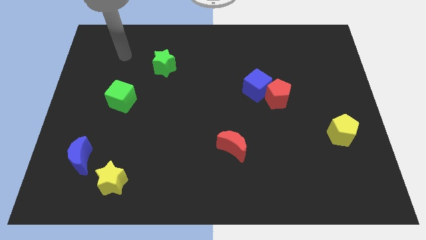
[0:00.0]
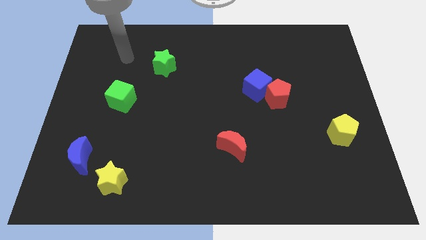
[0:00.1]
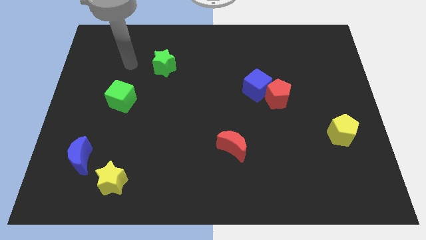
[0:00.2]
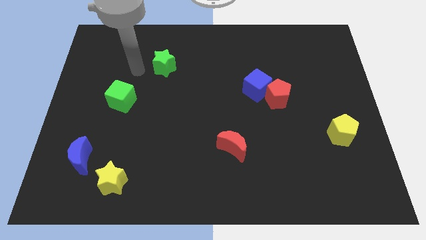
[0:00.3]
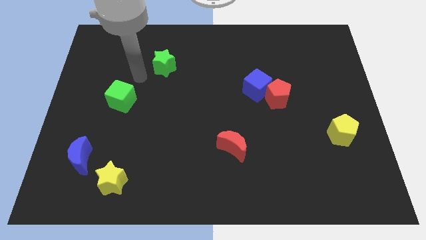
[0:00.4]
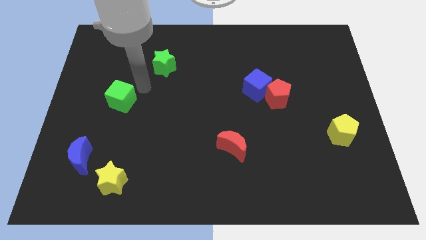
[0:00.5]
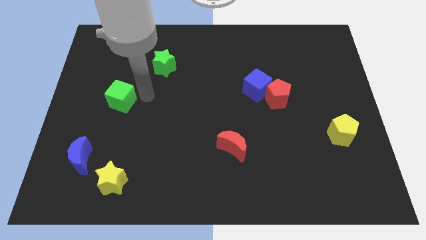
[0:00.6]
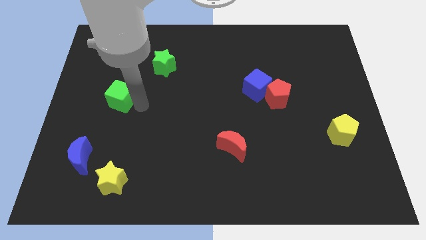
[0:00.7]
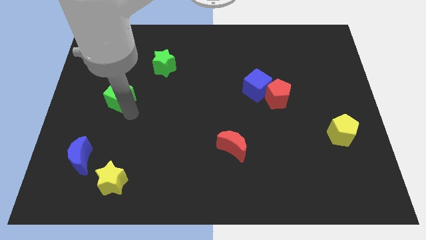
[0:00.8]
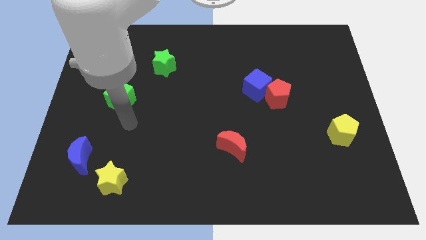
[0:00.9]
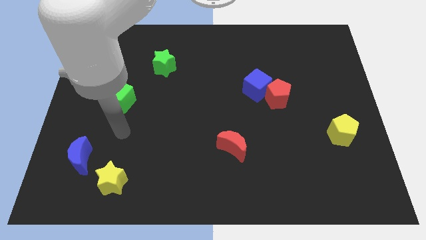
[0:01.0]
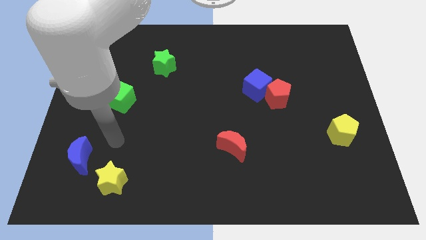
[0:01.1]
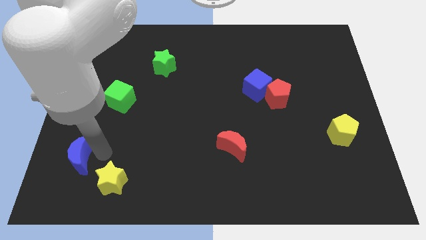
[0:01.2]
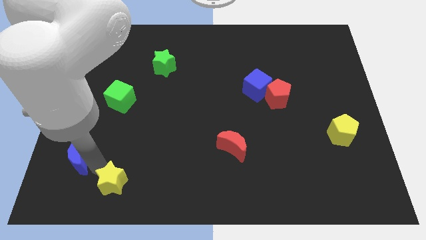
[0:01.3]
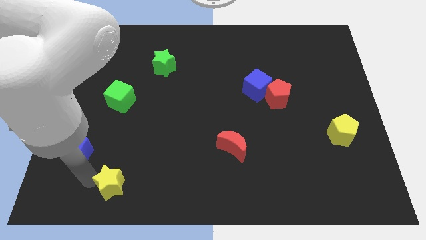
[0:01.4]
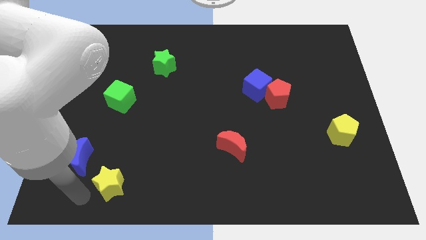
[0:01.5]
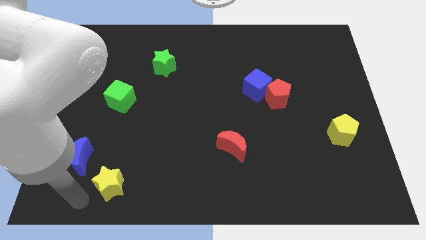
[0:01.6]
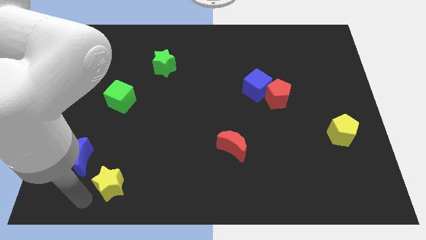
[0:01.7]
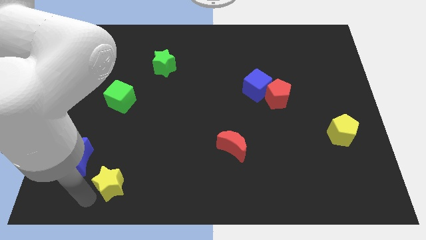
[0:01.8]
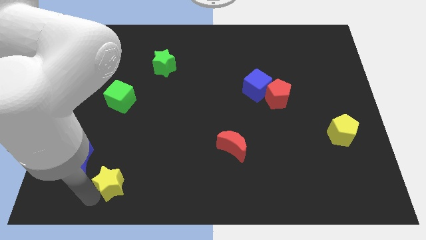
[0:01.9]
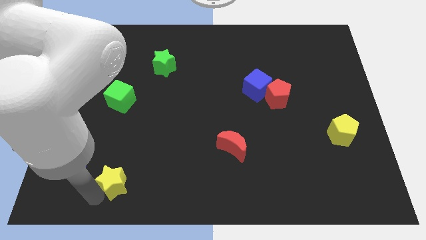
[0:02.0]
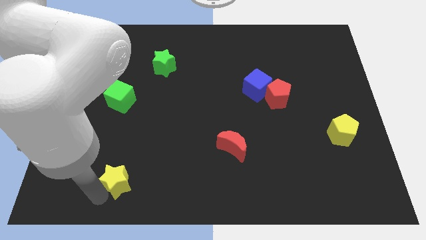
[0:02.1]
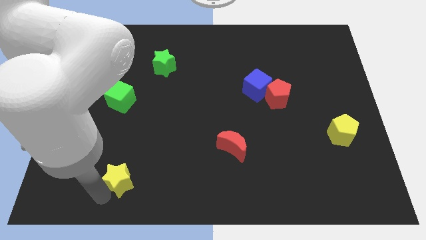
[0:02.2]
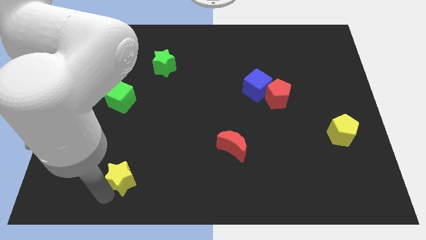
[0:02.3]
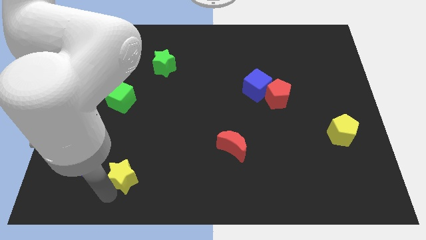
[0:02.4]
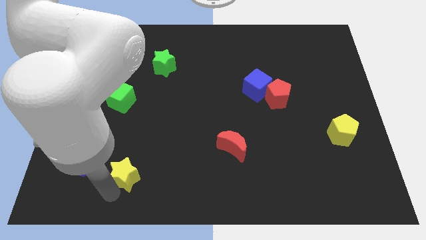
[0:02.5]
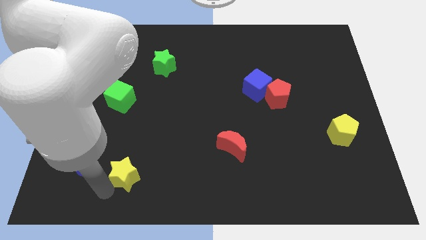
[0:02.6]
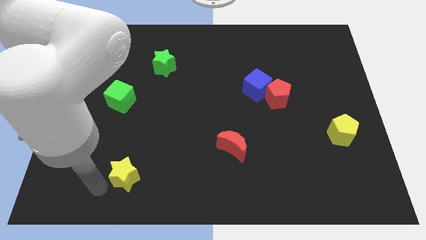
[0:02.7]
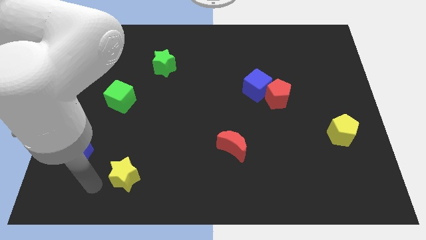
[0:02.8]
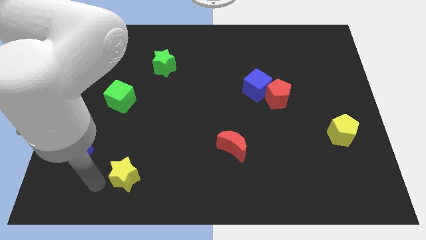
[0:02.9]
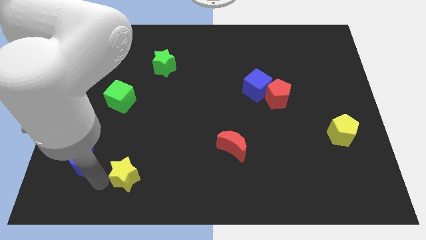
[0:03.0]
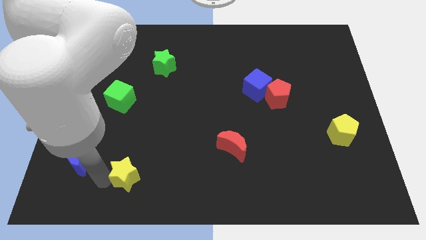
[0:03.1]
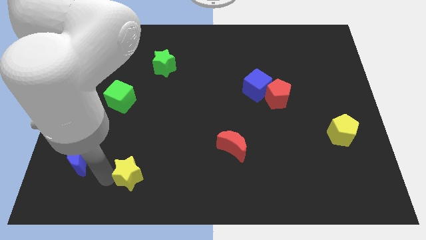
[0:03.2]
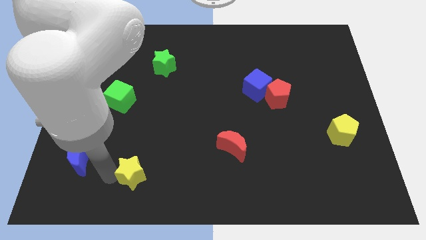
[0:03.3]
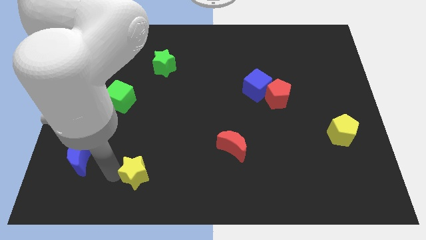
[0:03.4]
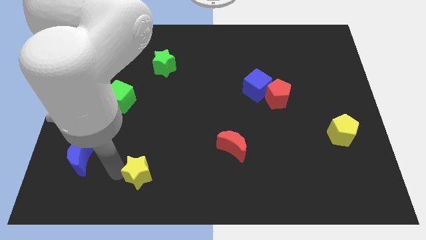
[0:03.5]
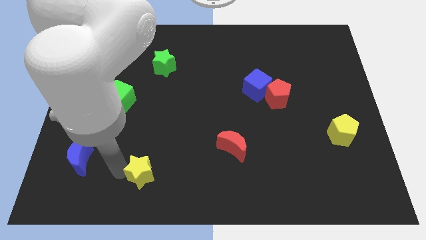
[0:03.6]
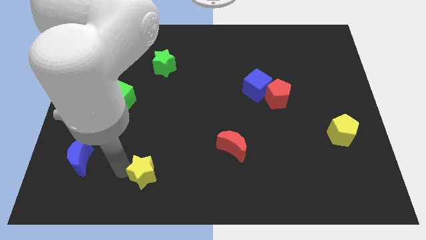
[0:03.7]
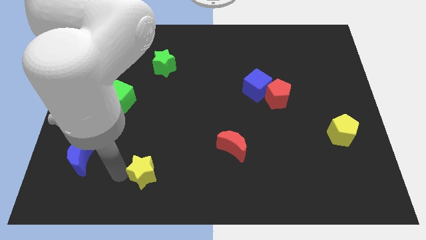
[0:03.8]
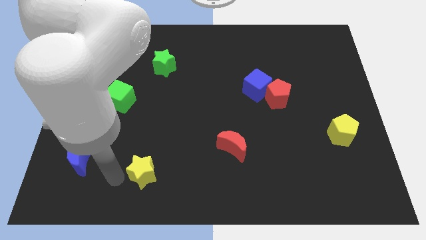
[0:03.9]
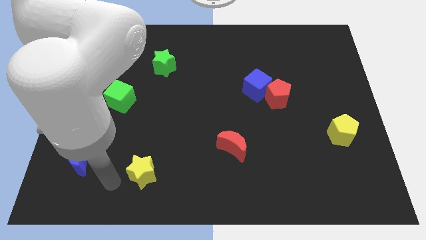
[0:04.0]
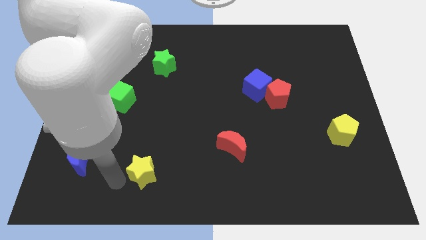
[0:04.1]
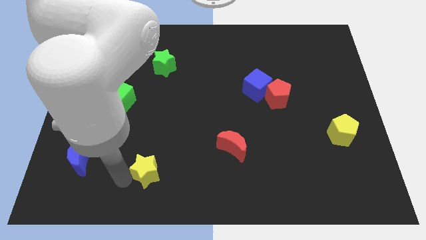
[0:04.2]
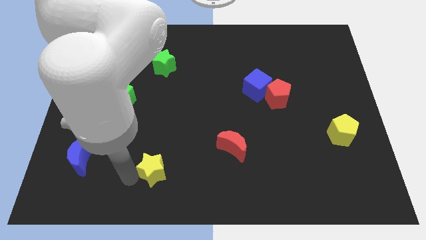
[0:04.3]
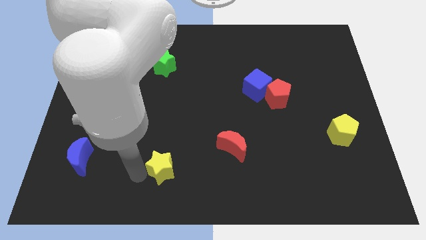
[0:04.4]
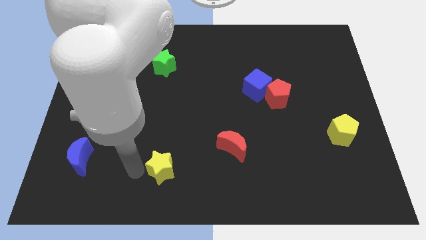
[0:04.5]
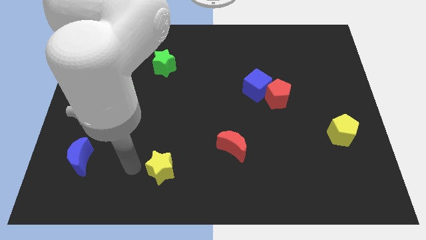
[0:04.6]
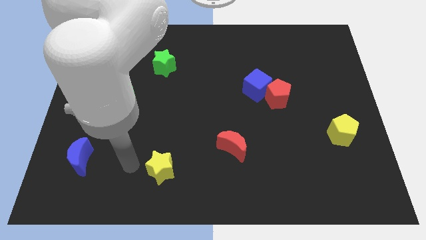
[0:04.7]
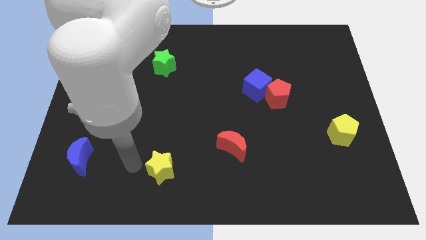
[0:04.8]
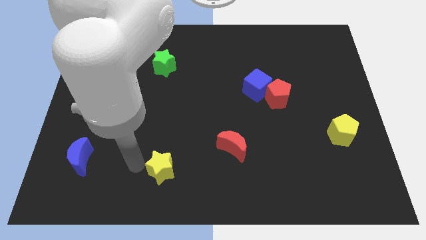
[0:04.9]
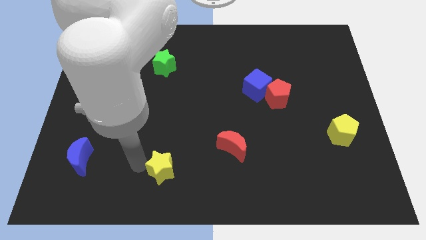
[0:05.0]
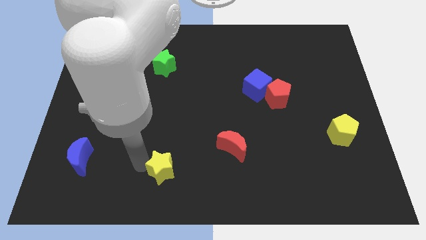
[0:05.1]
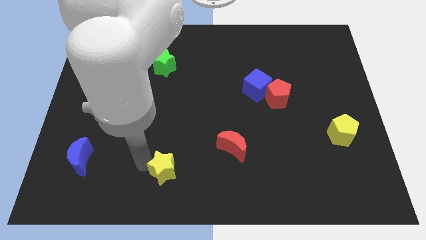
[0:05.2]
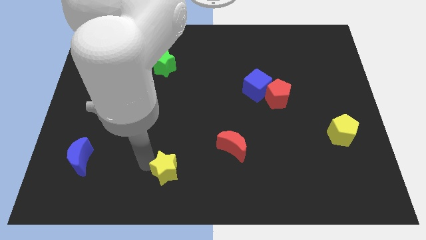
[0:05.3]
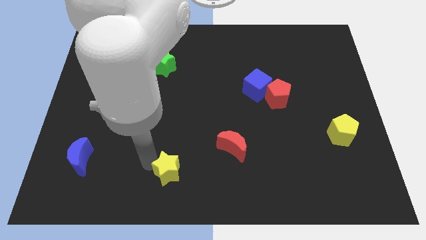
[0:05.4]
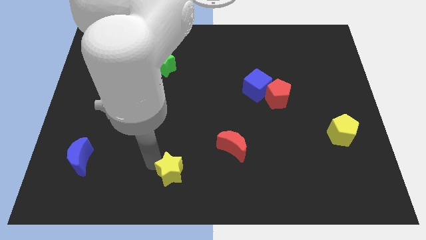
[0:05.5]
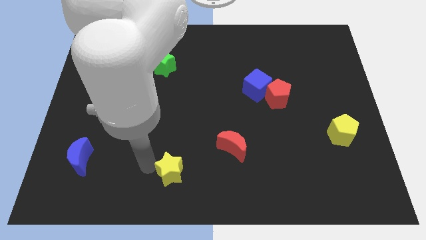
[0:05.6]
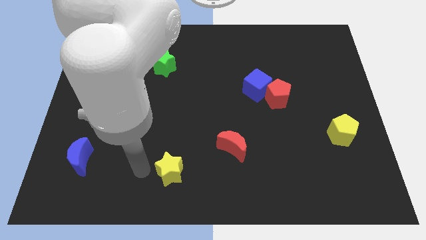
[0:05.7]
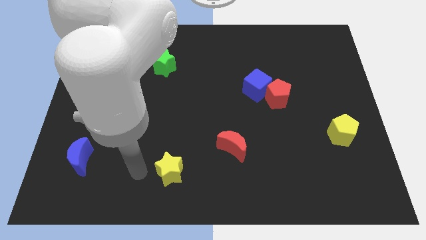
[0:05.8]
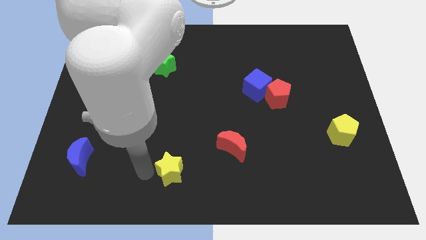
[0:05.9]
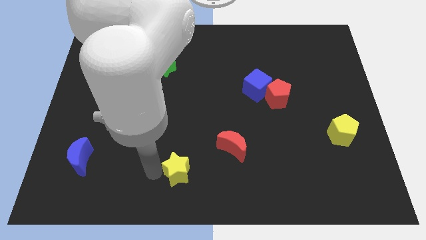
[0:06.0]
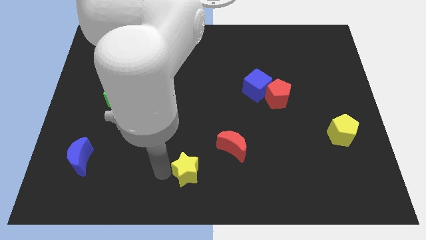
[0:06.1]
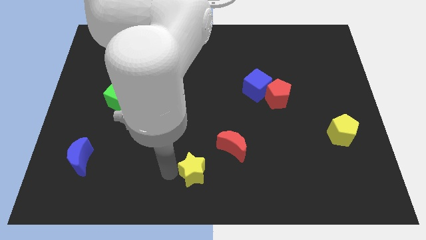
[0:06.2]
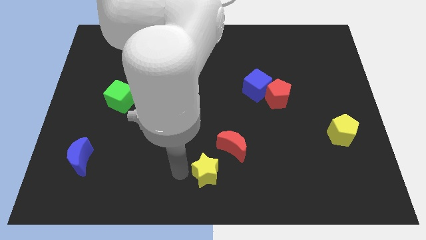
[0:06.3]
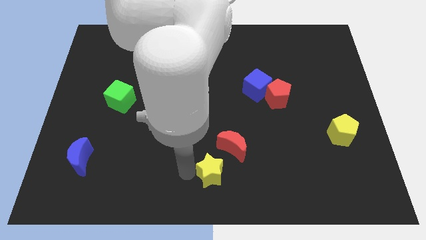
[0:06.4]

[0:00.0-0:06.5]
slide the yellow star right

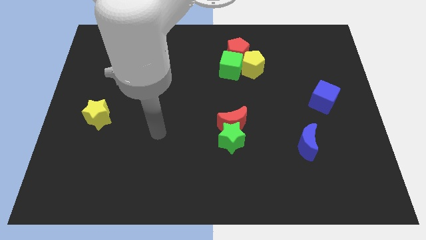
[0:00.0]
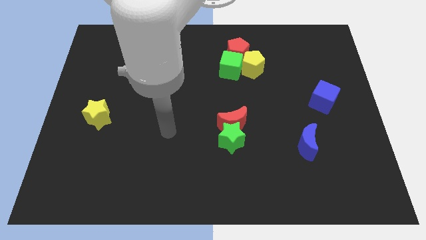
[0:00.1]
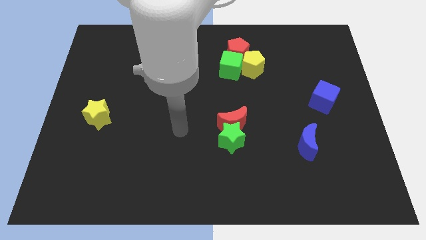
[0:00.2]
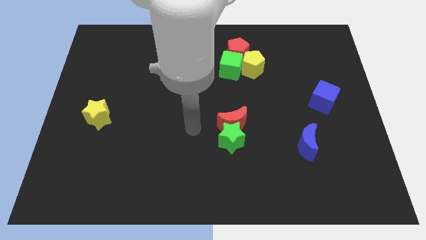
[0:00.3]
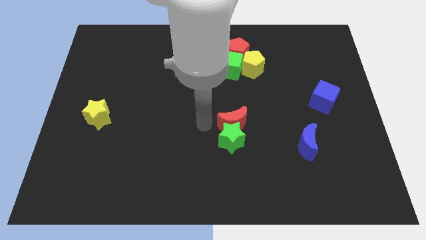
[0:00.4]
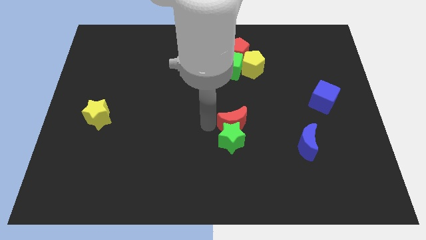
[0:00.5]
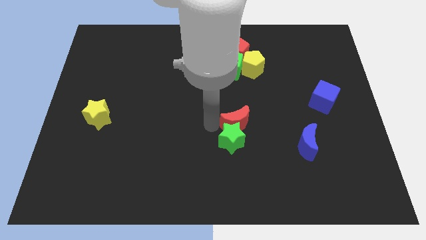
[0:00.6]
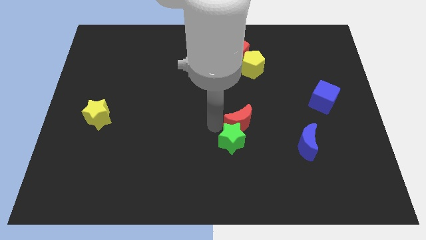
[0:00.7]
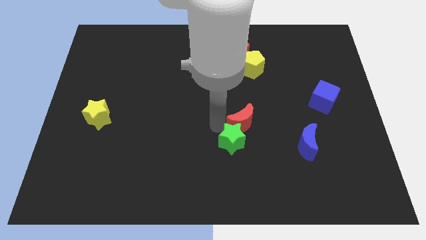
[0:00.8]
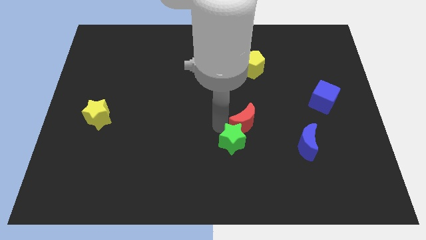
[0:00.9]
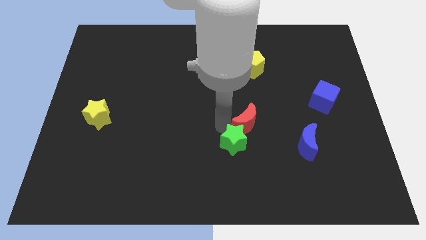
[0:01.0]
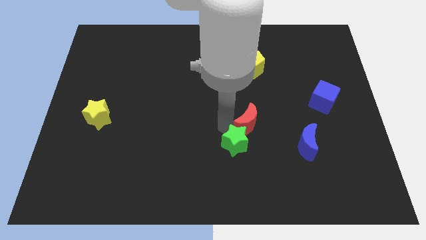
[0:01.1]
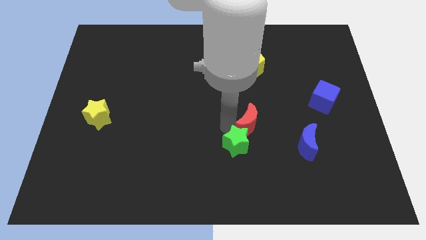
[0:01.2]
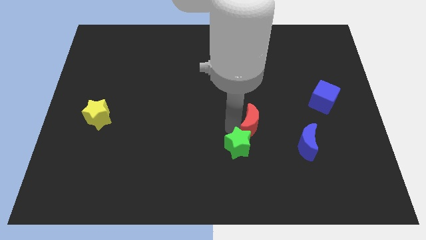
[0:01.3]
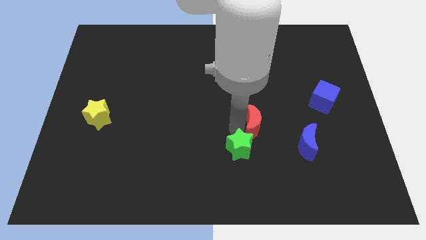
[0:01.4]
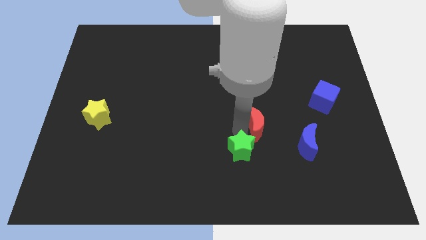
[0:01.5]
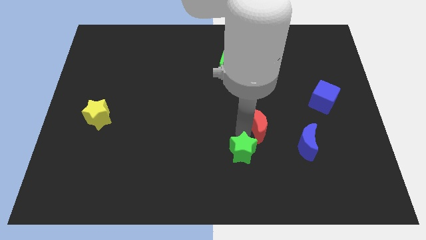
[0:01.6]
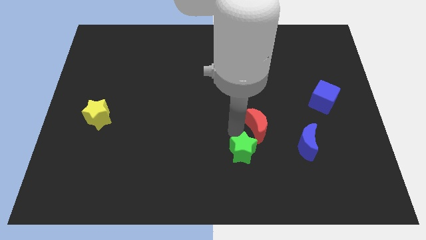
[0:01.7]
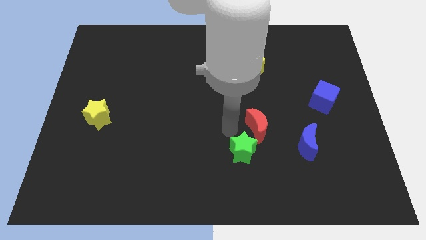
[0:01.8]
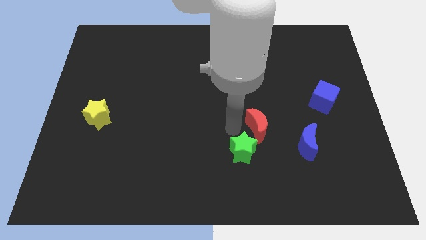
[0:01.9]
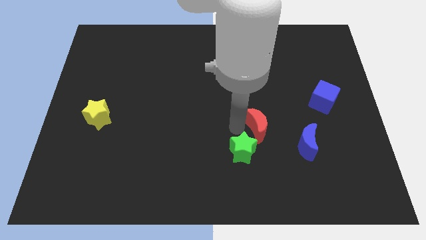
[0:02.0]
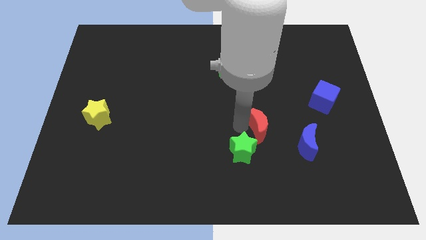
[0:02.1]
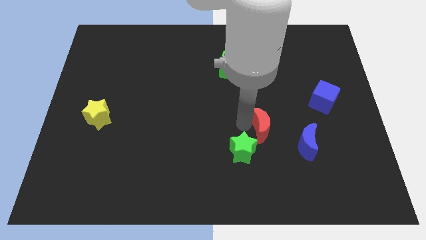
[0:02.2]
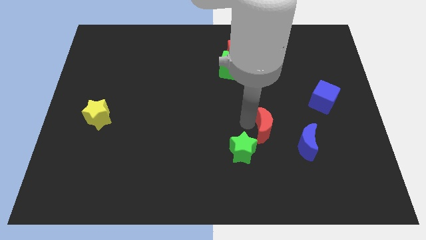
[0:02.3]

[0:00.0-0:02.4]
slightly push the red moon right
